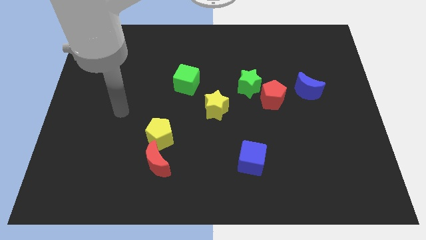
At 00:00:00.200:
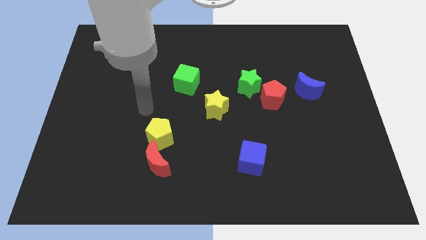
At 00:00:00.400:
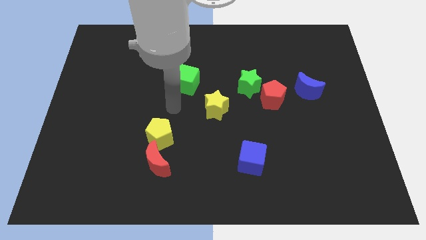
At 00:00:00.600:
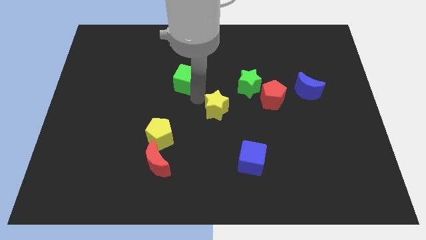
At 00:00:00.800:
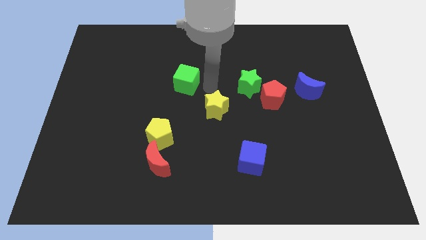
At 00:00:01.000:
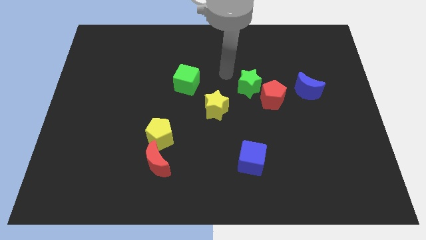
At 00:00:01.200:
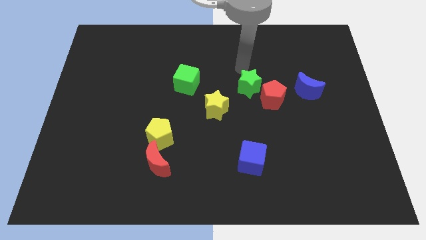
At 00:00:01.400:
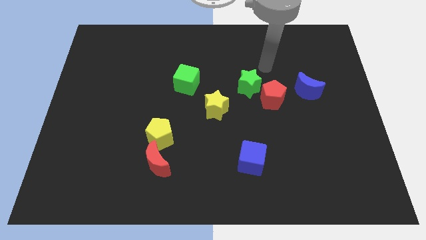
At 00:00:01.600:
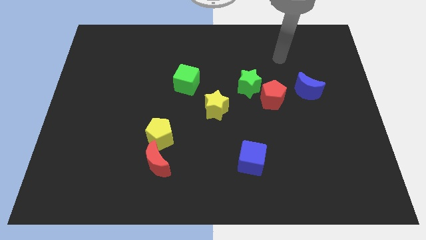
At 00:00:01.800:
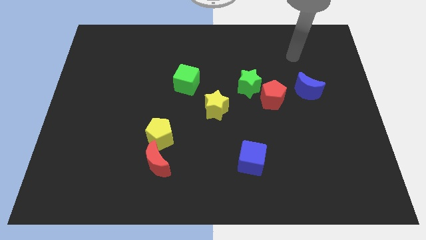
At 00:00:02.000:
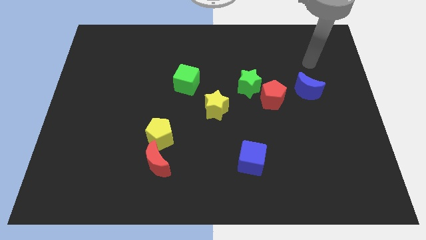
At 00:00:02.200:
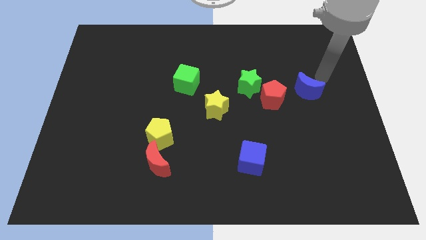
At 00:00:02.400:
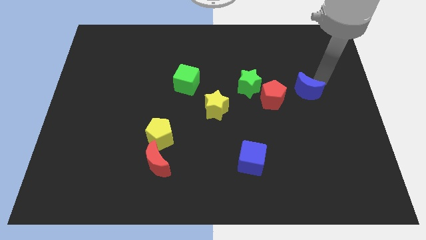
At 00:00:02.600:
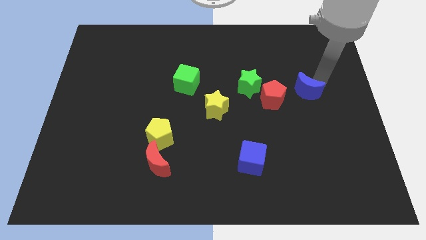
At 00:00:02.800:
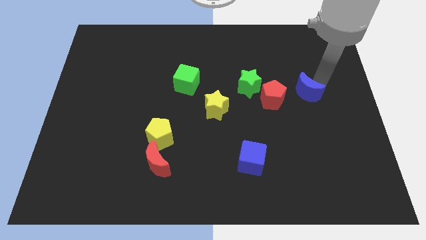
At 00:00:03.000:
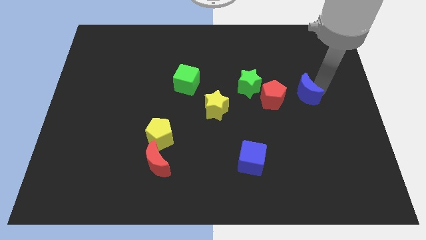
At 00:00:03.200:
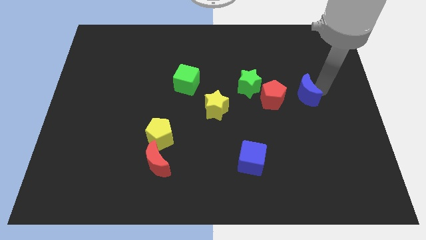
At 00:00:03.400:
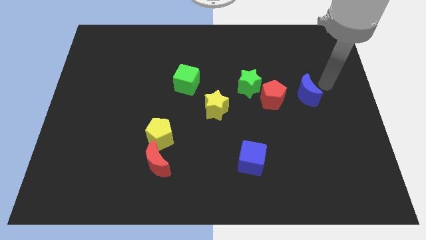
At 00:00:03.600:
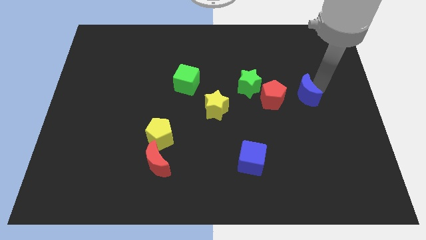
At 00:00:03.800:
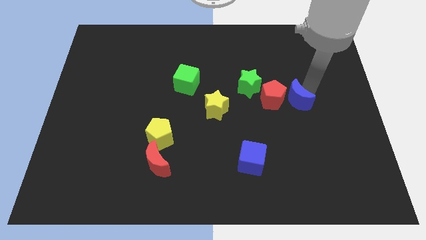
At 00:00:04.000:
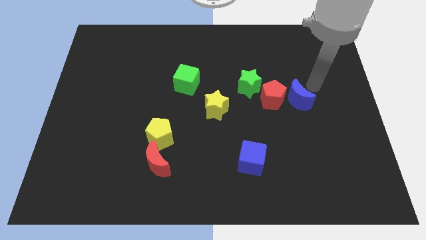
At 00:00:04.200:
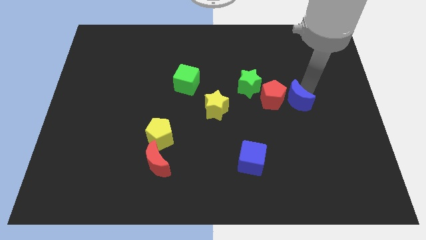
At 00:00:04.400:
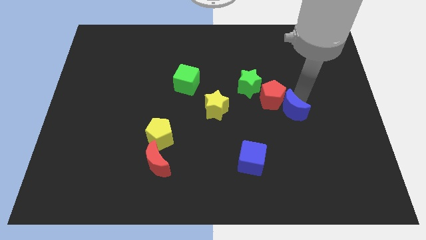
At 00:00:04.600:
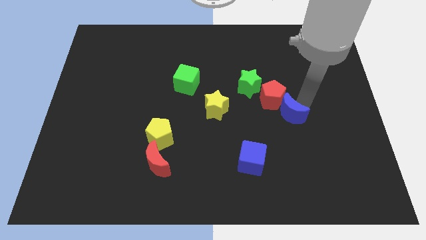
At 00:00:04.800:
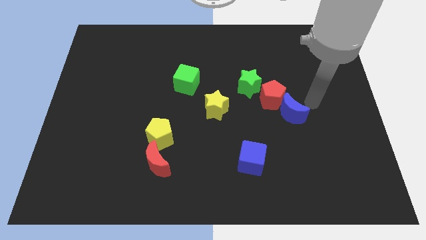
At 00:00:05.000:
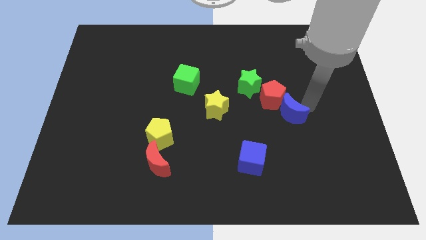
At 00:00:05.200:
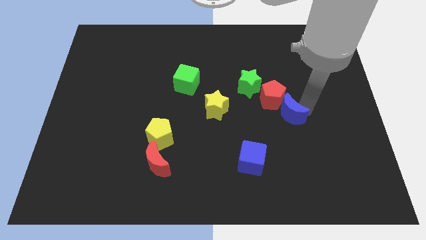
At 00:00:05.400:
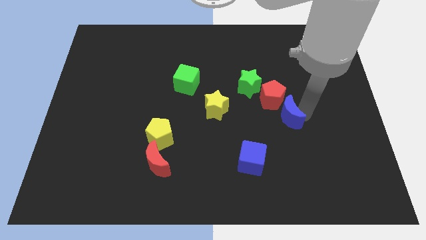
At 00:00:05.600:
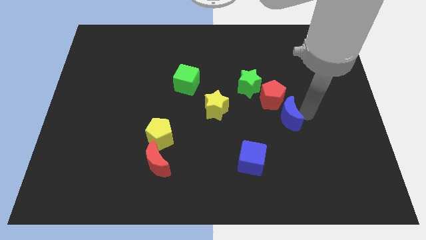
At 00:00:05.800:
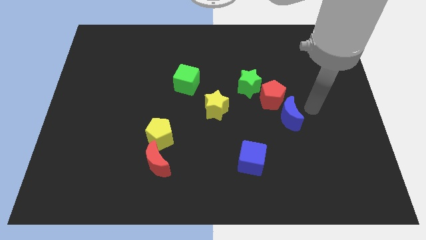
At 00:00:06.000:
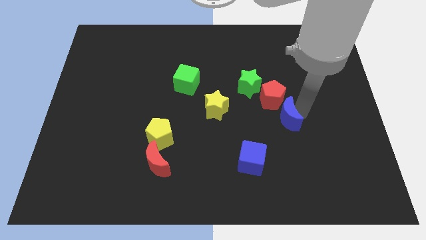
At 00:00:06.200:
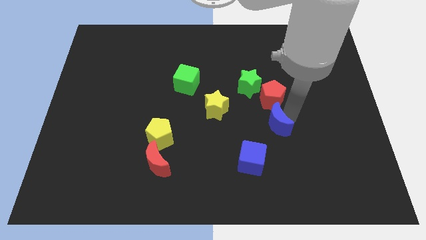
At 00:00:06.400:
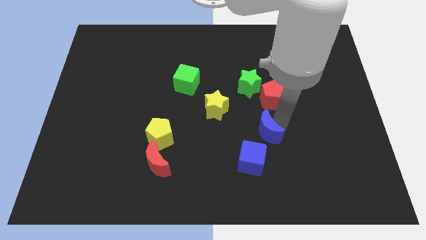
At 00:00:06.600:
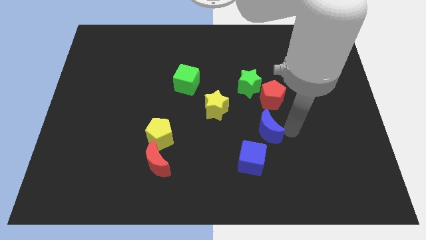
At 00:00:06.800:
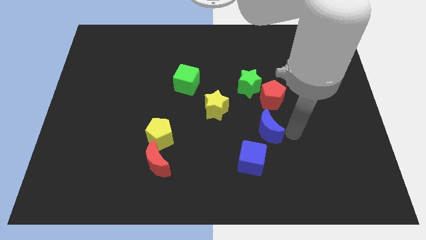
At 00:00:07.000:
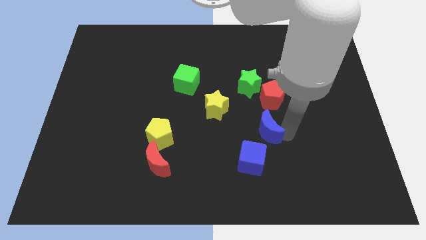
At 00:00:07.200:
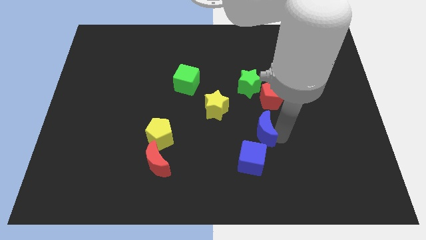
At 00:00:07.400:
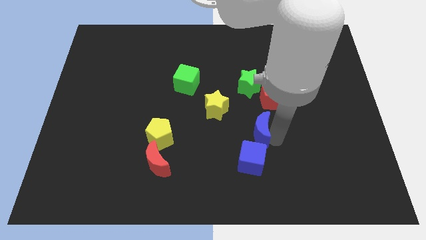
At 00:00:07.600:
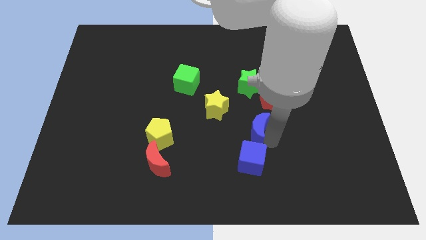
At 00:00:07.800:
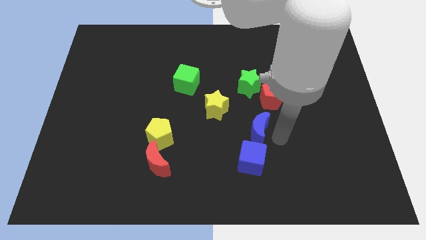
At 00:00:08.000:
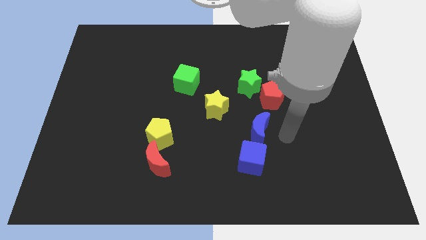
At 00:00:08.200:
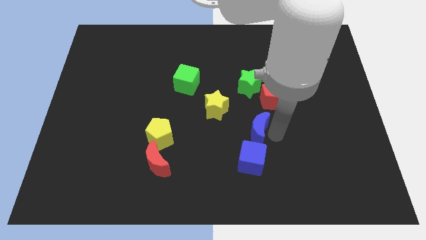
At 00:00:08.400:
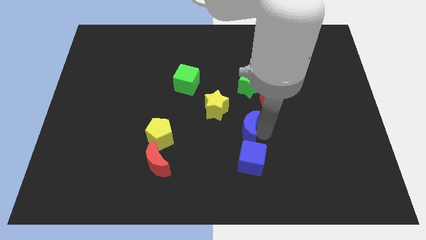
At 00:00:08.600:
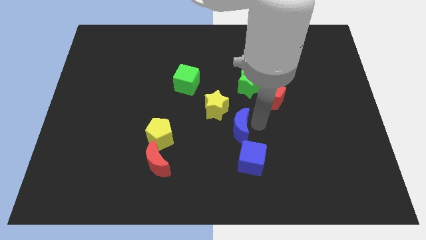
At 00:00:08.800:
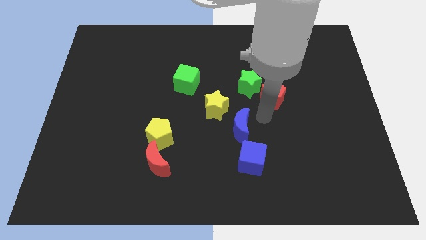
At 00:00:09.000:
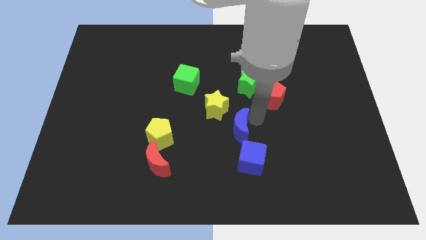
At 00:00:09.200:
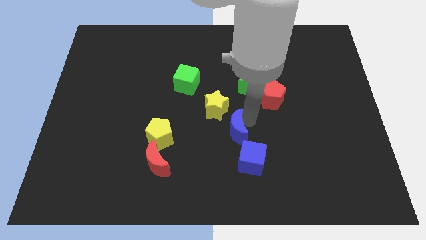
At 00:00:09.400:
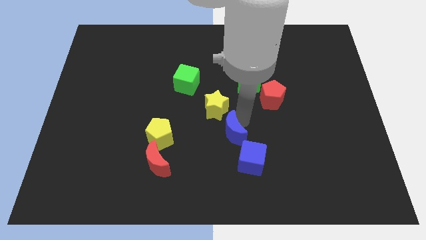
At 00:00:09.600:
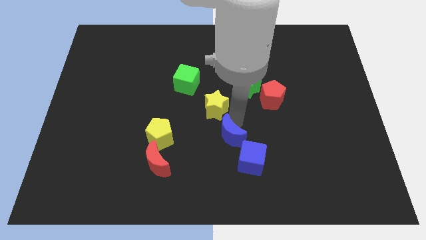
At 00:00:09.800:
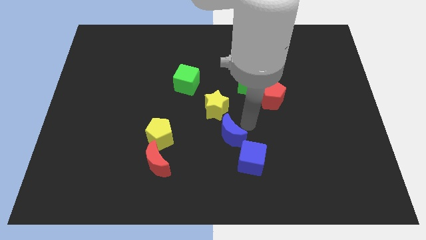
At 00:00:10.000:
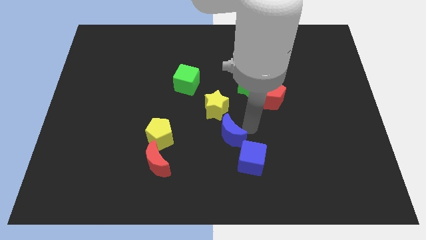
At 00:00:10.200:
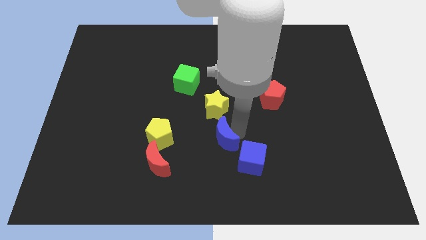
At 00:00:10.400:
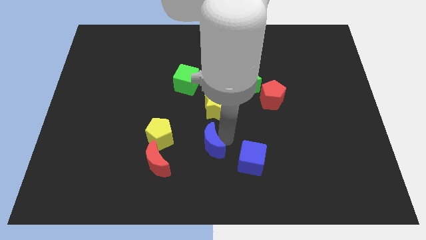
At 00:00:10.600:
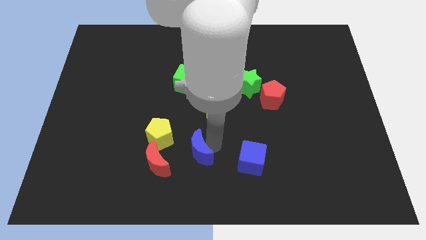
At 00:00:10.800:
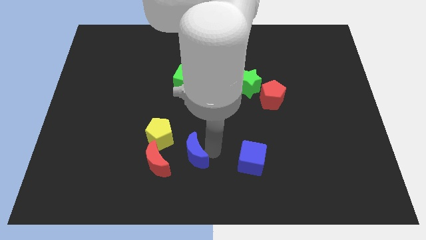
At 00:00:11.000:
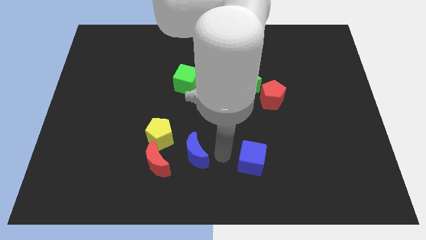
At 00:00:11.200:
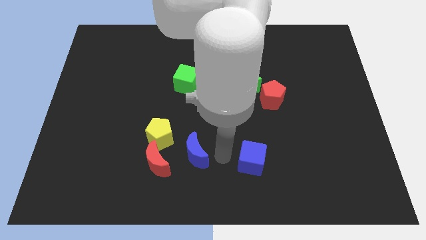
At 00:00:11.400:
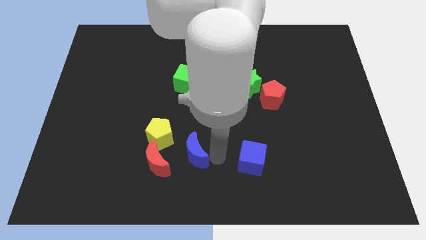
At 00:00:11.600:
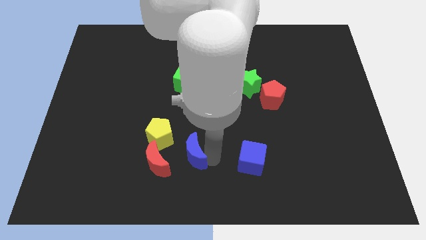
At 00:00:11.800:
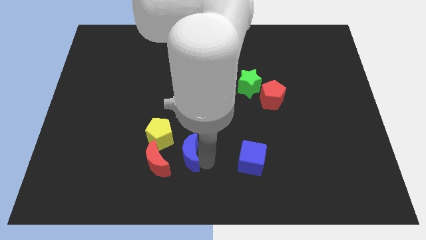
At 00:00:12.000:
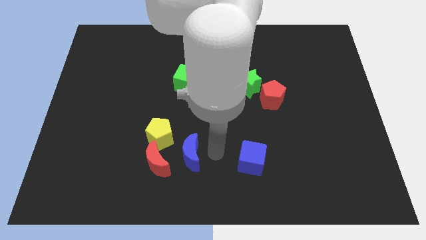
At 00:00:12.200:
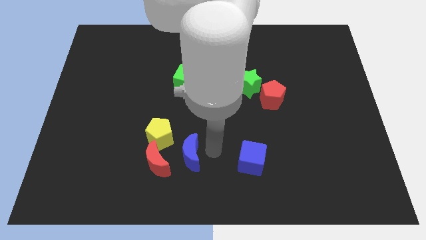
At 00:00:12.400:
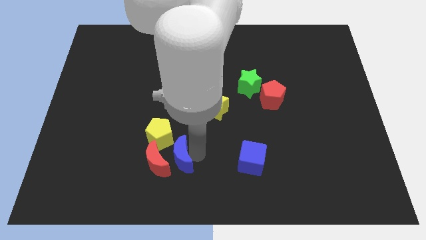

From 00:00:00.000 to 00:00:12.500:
move the blue moon close to the red moon
